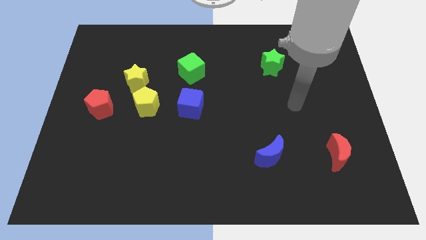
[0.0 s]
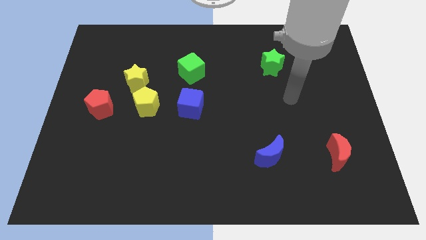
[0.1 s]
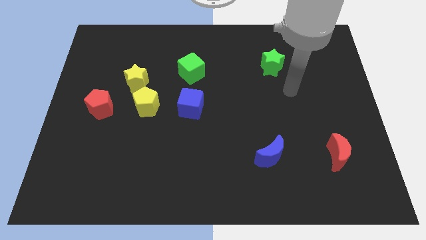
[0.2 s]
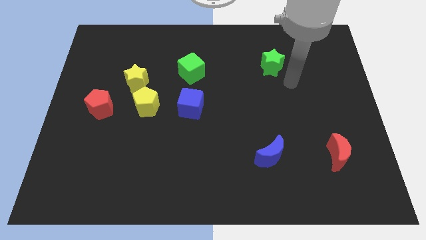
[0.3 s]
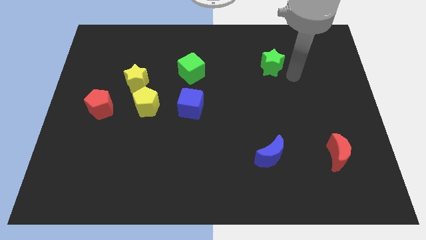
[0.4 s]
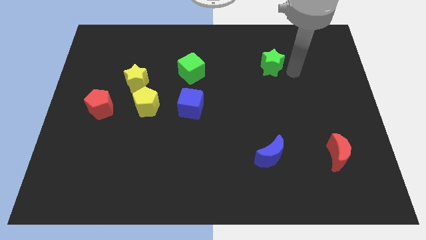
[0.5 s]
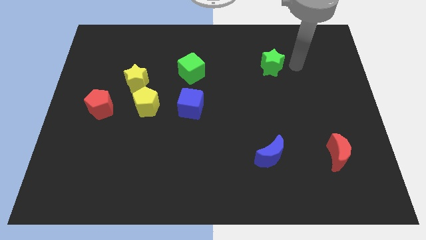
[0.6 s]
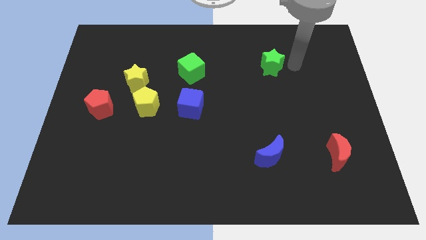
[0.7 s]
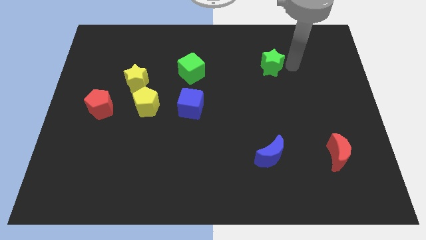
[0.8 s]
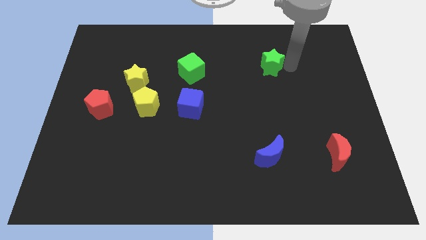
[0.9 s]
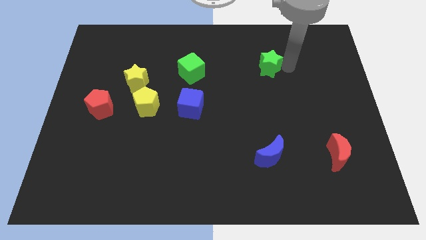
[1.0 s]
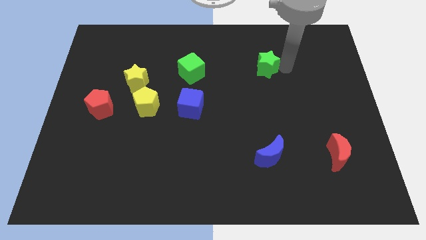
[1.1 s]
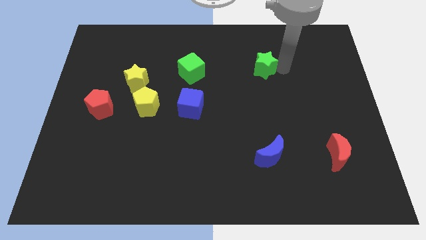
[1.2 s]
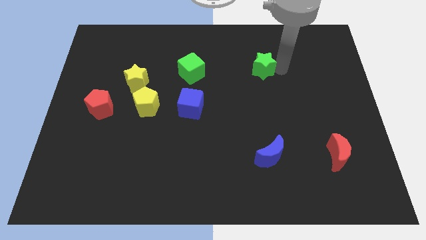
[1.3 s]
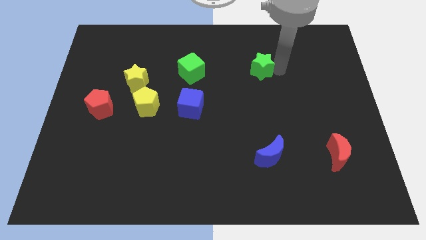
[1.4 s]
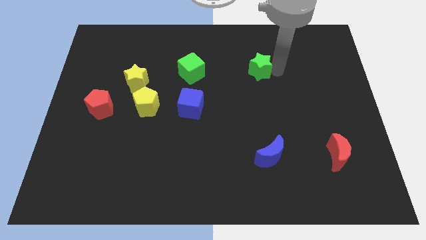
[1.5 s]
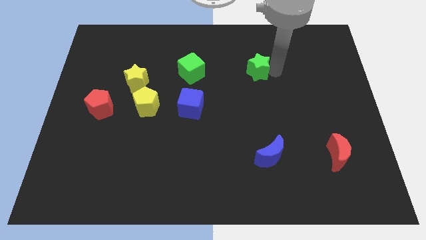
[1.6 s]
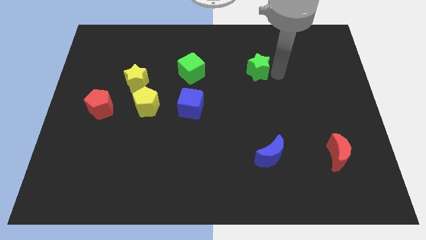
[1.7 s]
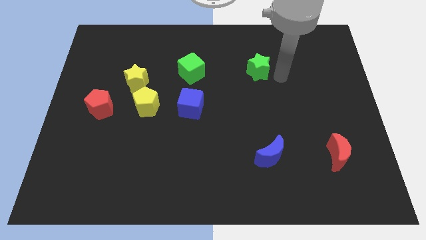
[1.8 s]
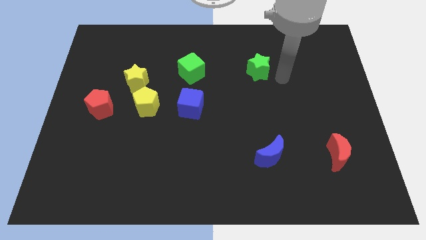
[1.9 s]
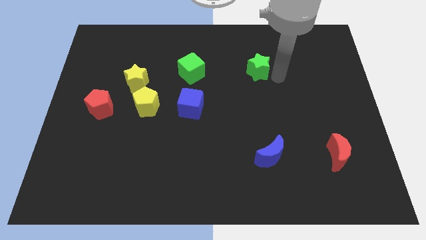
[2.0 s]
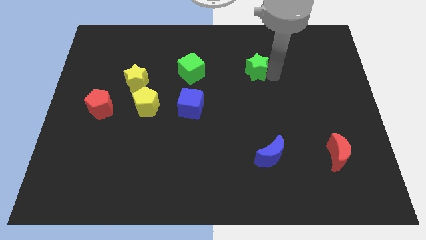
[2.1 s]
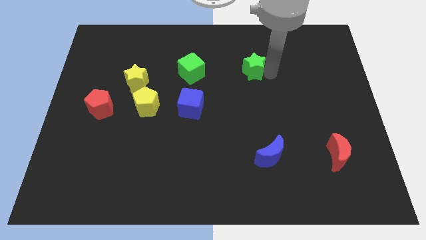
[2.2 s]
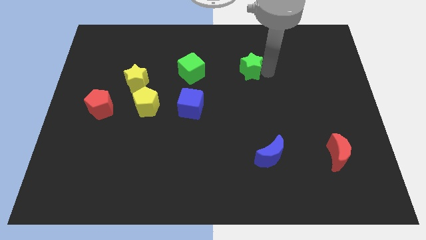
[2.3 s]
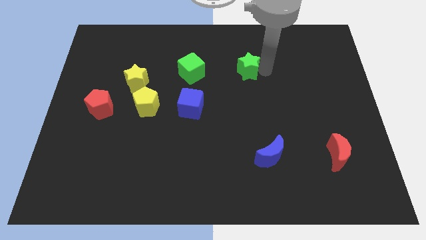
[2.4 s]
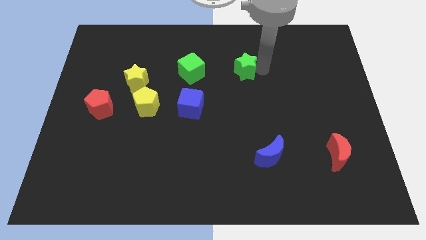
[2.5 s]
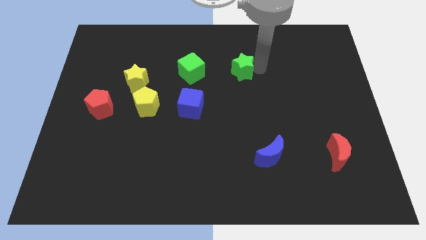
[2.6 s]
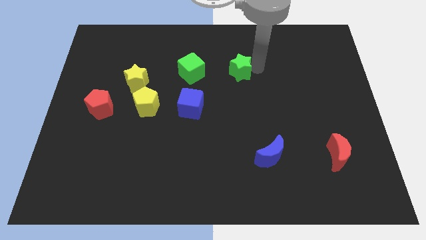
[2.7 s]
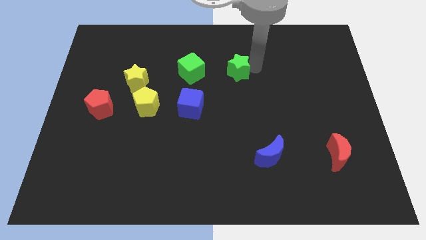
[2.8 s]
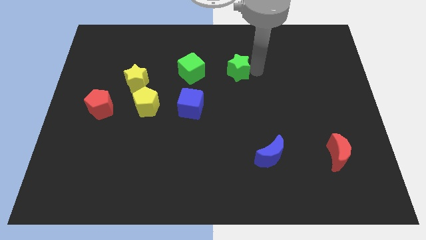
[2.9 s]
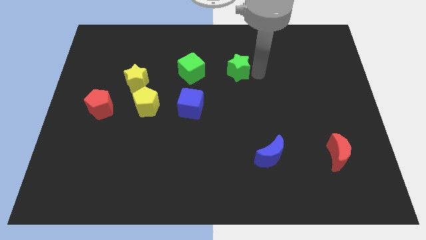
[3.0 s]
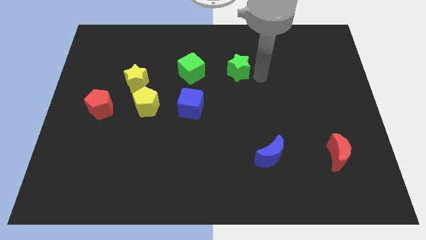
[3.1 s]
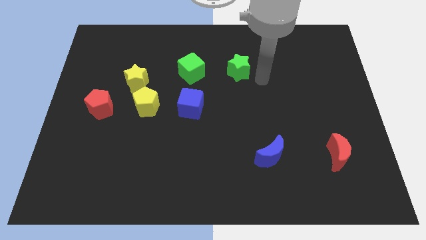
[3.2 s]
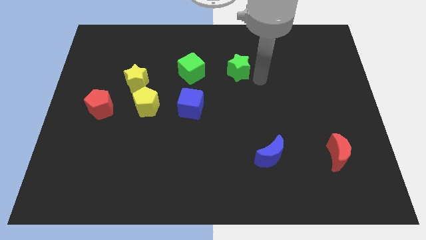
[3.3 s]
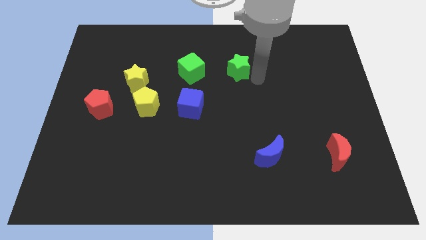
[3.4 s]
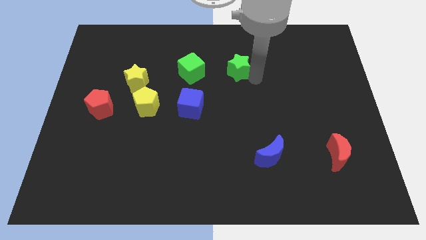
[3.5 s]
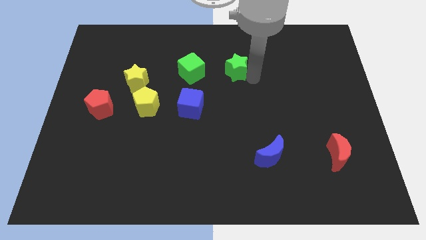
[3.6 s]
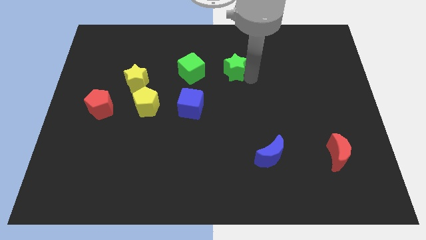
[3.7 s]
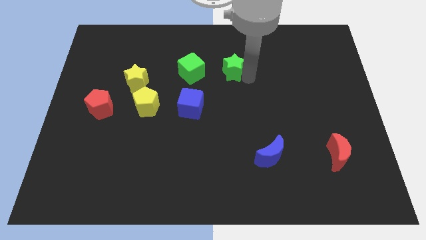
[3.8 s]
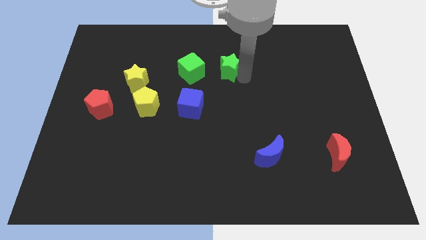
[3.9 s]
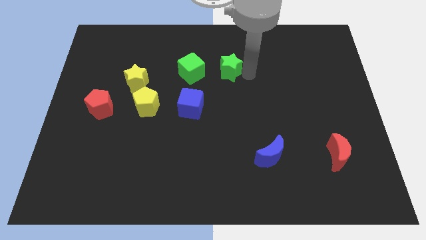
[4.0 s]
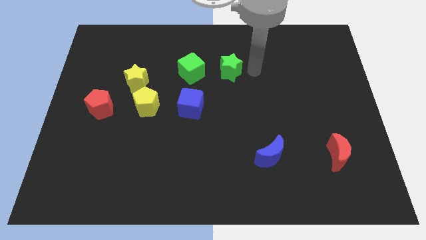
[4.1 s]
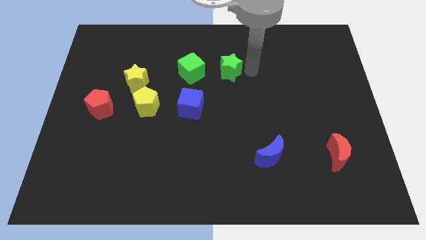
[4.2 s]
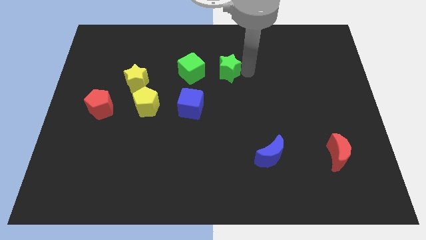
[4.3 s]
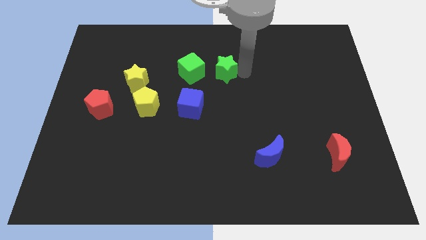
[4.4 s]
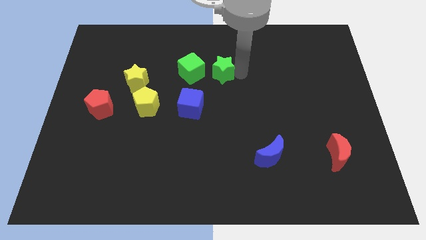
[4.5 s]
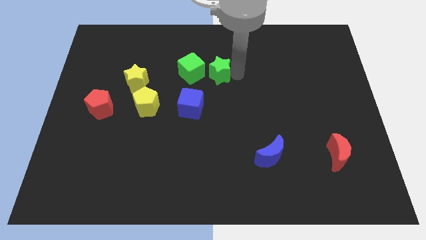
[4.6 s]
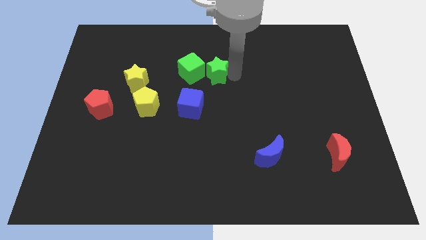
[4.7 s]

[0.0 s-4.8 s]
slide the green star towards the green cube

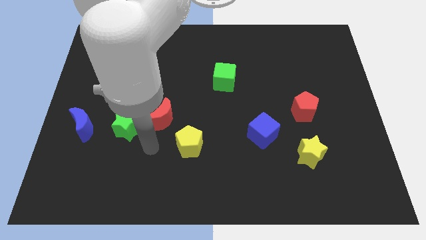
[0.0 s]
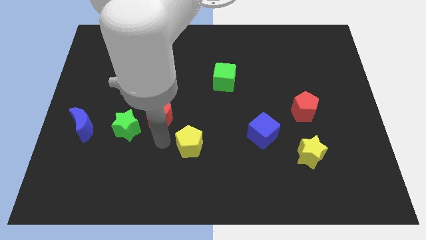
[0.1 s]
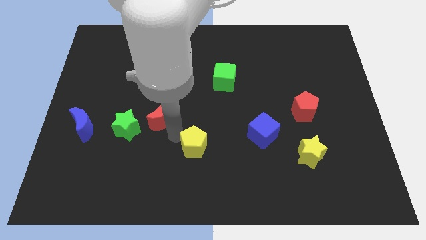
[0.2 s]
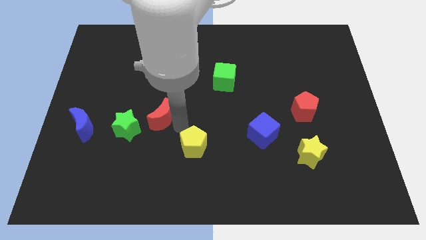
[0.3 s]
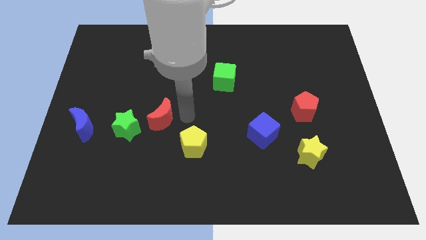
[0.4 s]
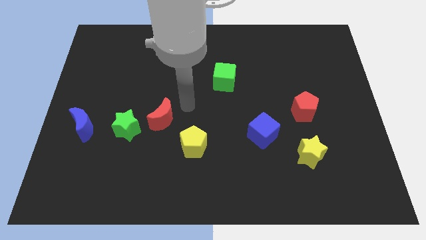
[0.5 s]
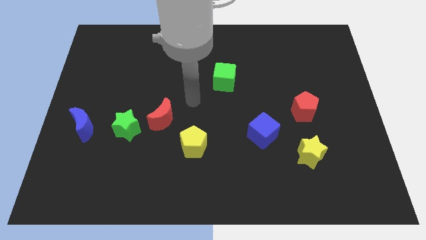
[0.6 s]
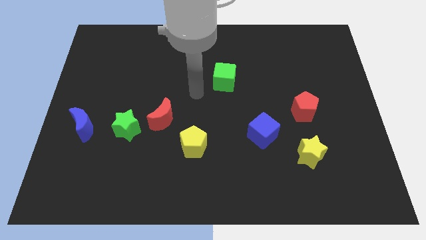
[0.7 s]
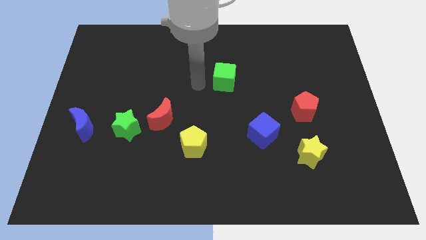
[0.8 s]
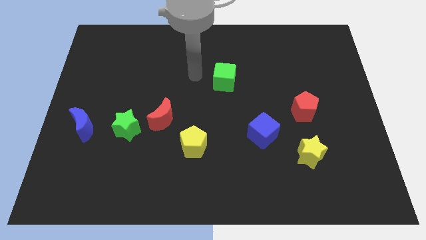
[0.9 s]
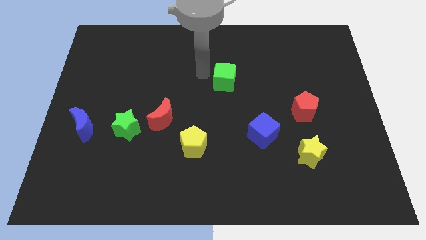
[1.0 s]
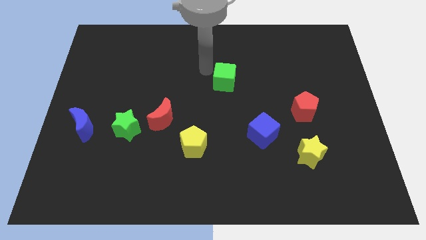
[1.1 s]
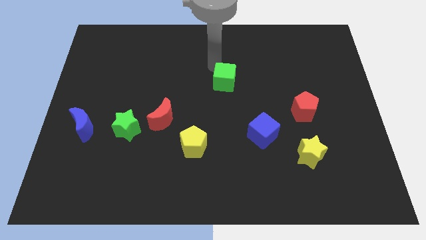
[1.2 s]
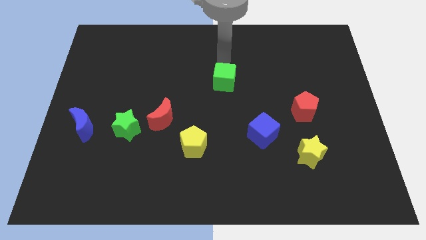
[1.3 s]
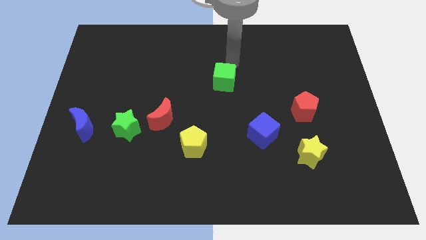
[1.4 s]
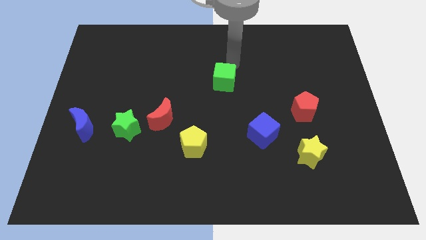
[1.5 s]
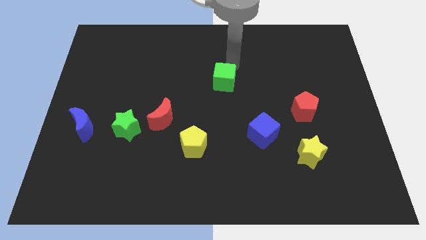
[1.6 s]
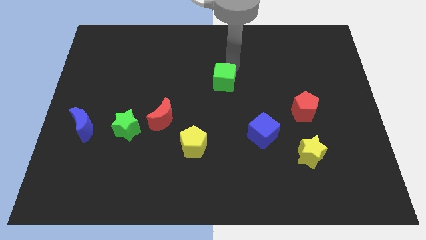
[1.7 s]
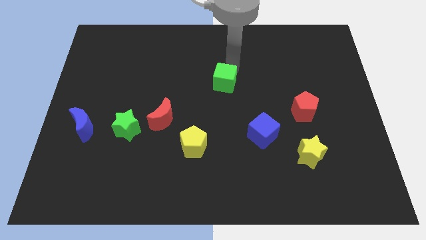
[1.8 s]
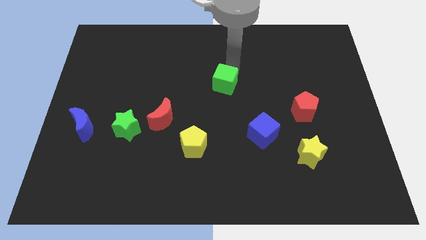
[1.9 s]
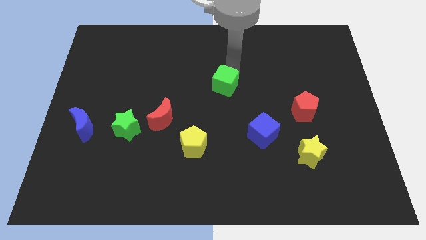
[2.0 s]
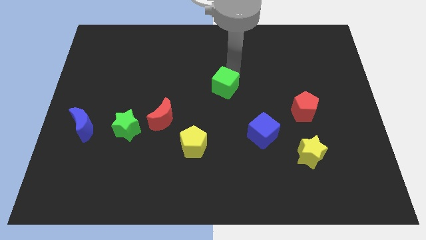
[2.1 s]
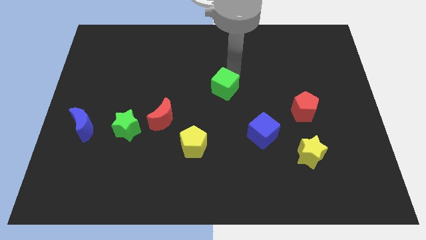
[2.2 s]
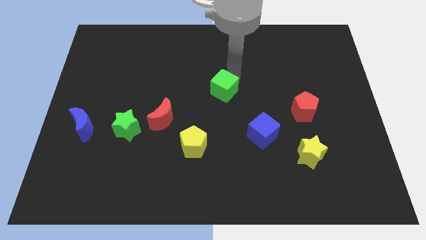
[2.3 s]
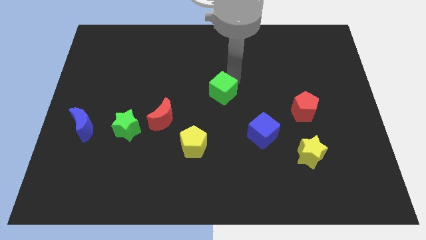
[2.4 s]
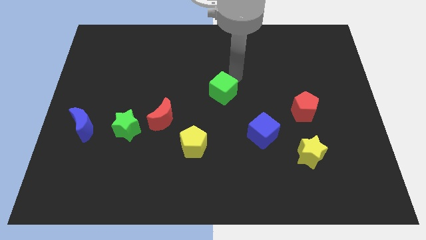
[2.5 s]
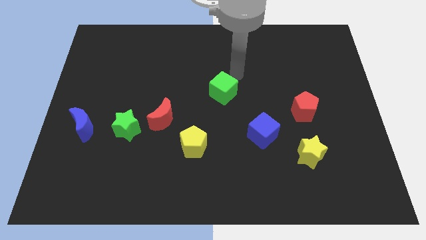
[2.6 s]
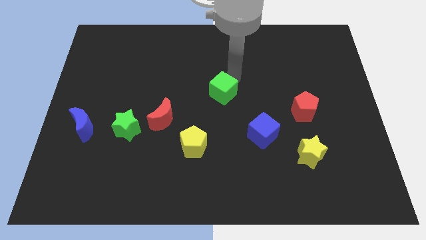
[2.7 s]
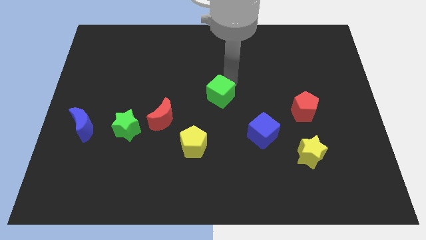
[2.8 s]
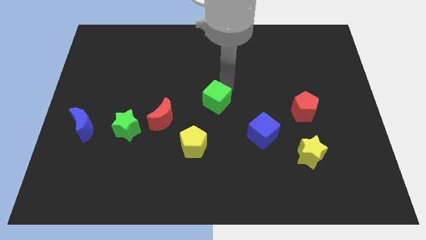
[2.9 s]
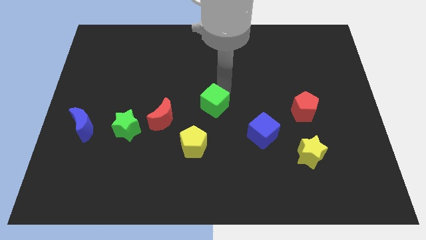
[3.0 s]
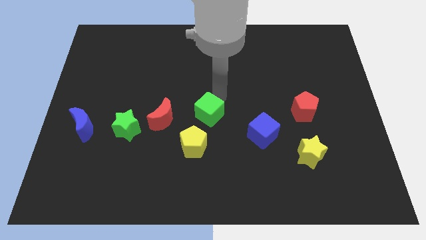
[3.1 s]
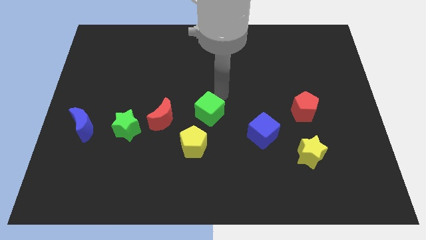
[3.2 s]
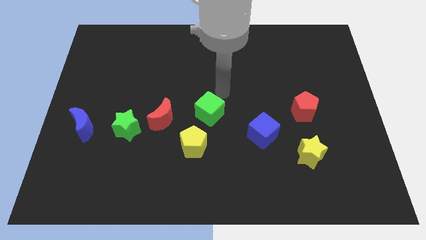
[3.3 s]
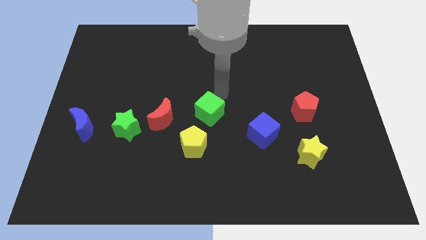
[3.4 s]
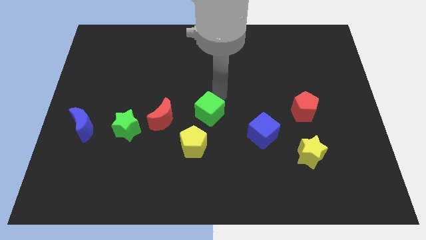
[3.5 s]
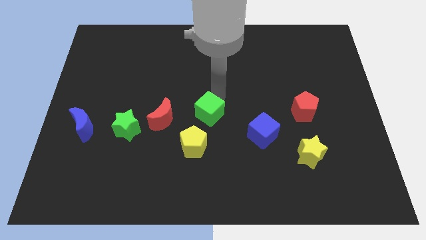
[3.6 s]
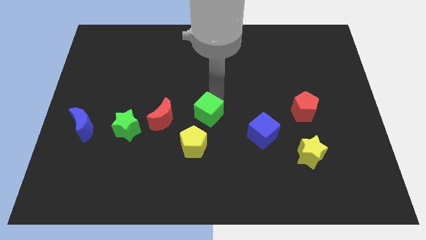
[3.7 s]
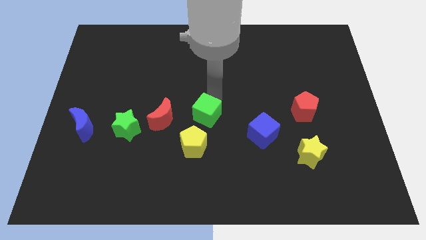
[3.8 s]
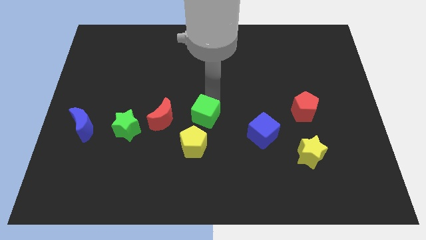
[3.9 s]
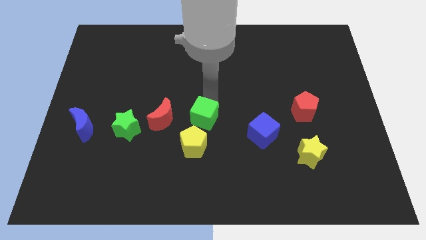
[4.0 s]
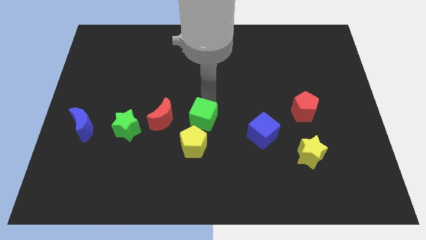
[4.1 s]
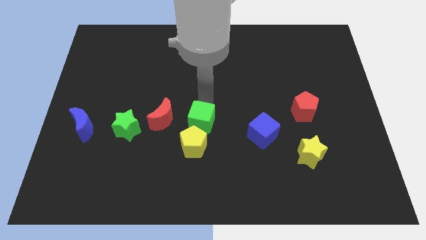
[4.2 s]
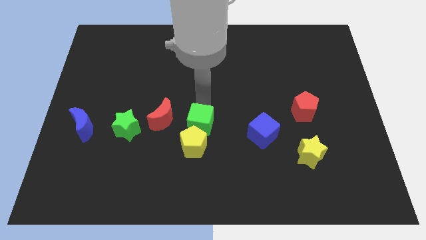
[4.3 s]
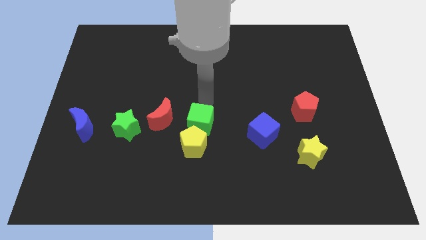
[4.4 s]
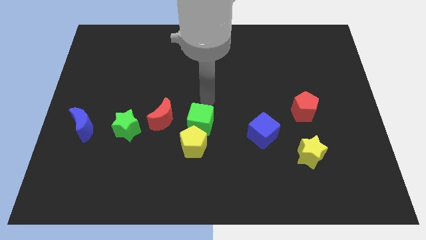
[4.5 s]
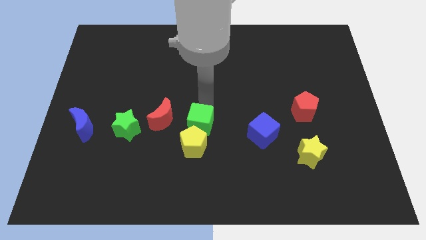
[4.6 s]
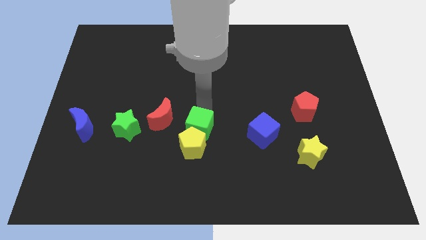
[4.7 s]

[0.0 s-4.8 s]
push the green cube next to the yellow pentagon
